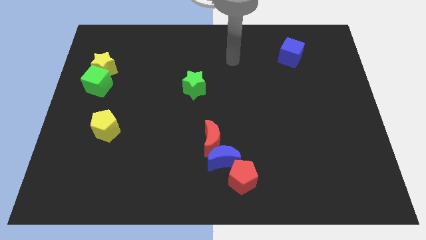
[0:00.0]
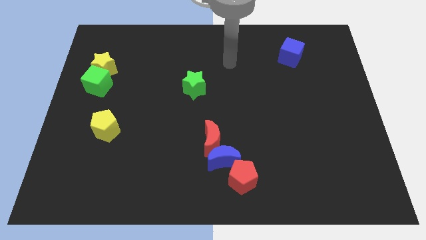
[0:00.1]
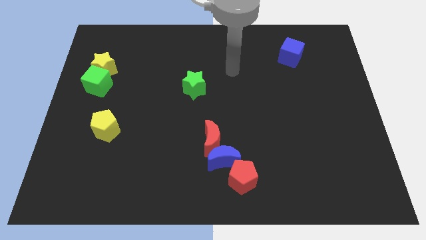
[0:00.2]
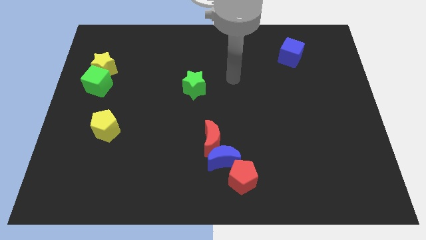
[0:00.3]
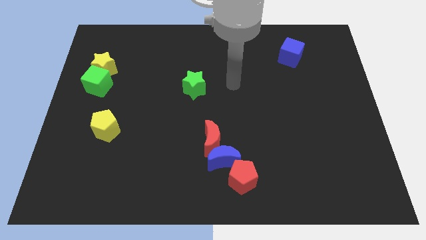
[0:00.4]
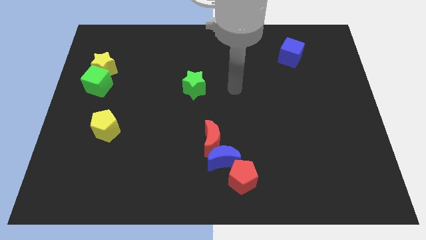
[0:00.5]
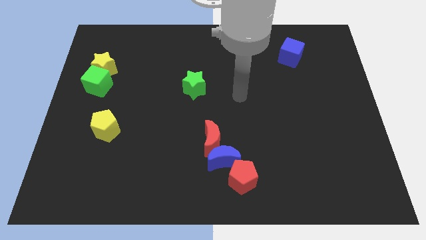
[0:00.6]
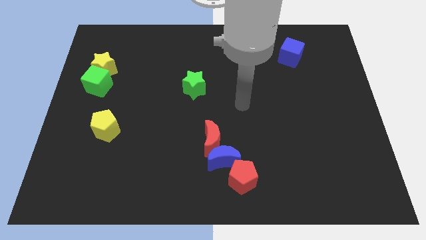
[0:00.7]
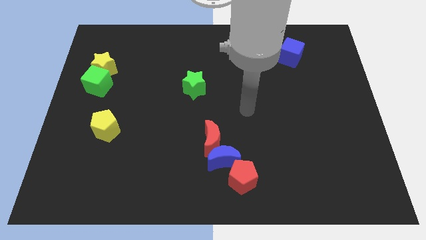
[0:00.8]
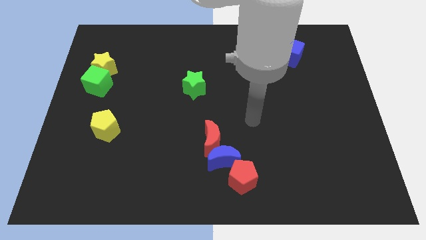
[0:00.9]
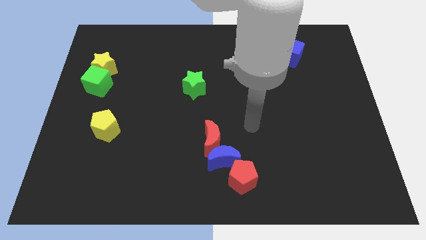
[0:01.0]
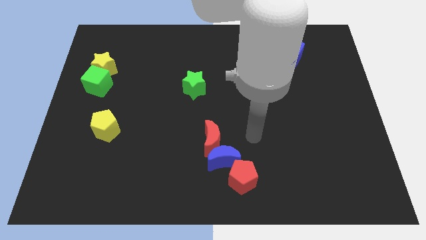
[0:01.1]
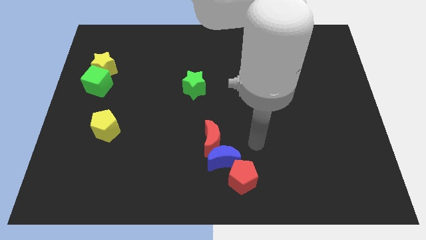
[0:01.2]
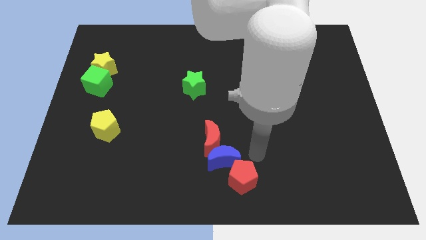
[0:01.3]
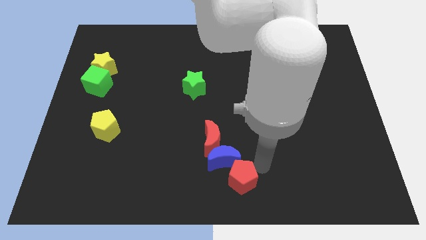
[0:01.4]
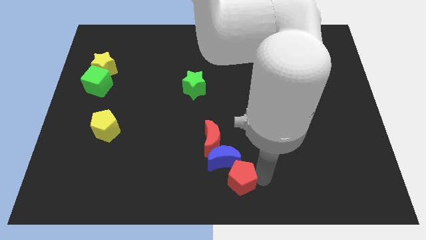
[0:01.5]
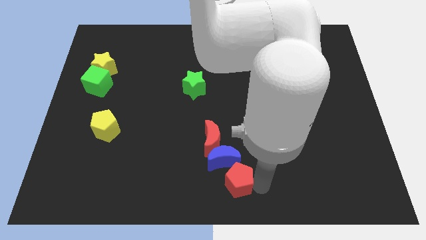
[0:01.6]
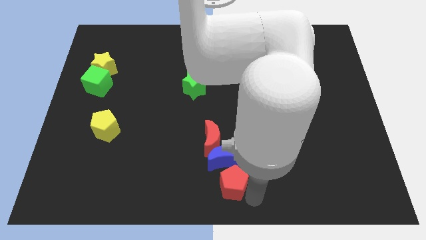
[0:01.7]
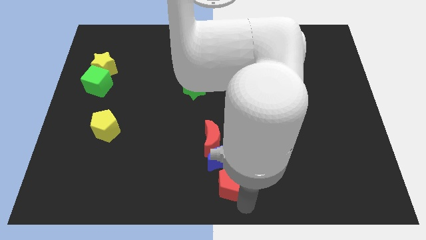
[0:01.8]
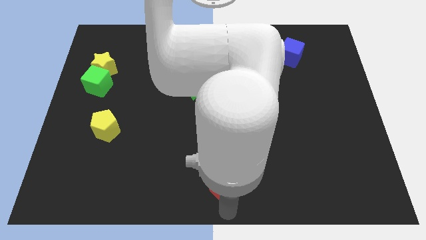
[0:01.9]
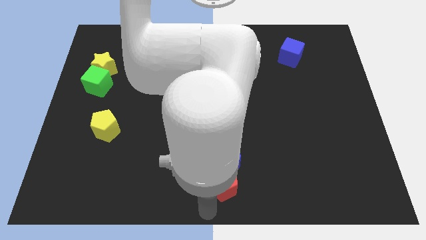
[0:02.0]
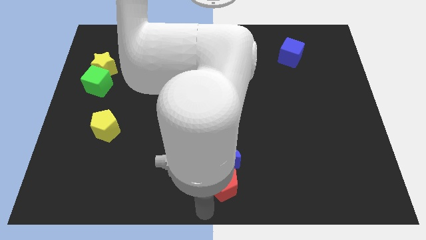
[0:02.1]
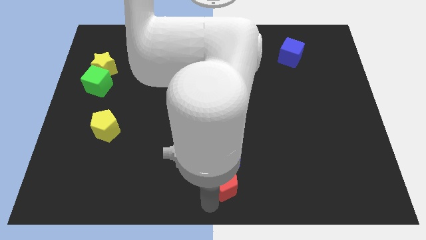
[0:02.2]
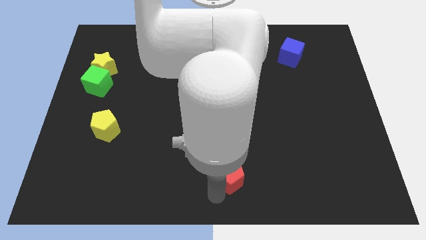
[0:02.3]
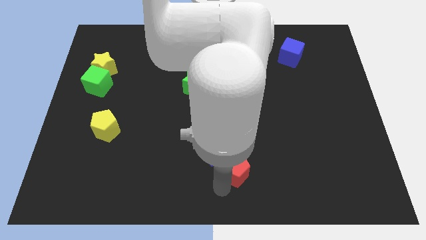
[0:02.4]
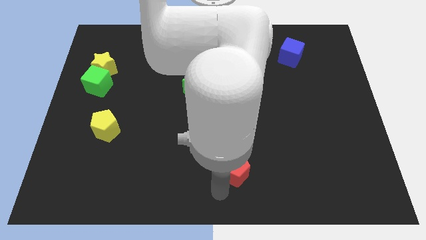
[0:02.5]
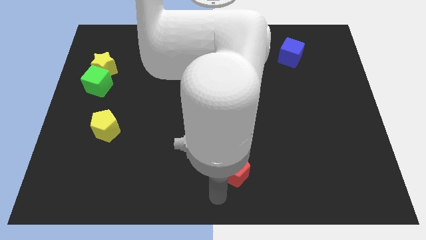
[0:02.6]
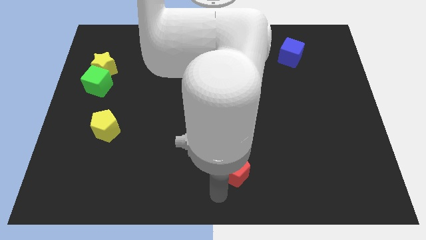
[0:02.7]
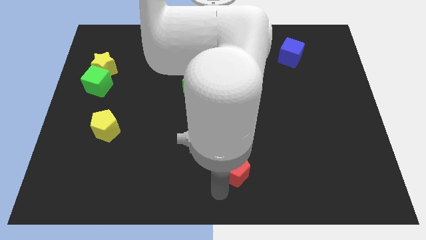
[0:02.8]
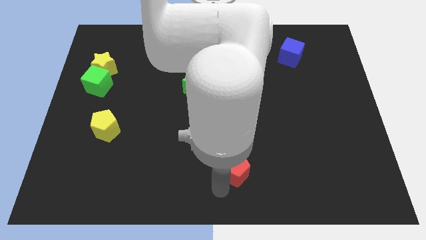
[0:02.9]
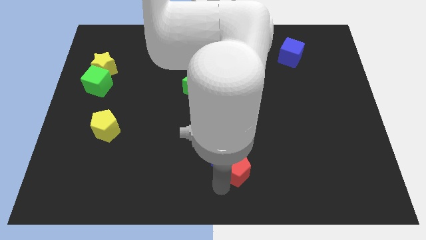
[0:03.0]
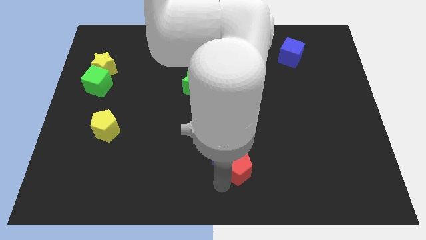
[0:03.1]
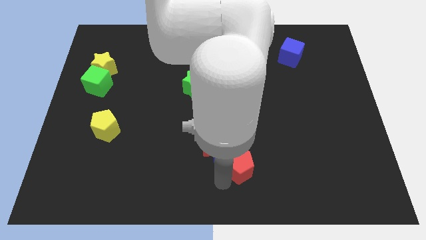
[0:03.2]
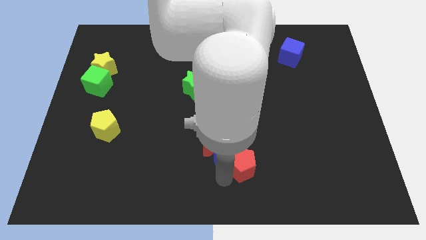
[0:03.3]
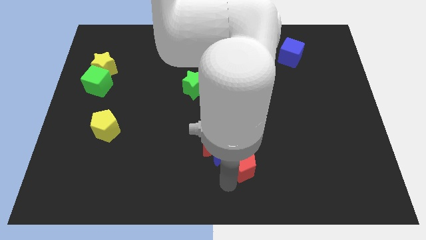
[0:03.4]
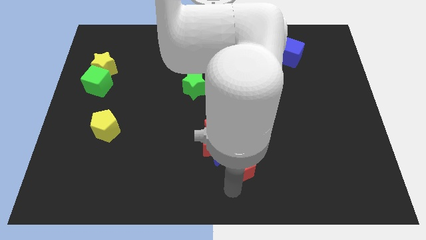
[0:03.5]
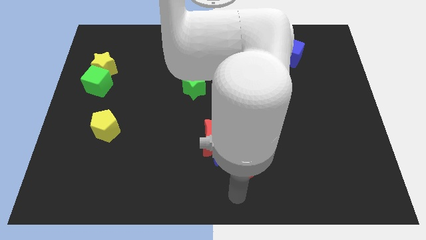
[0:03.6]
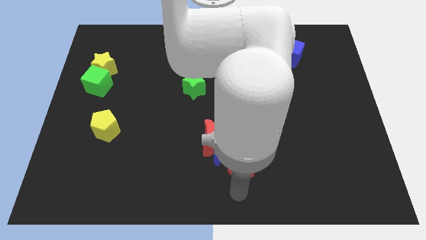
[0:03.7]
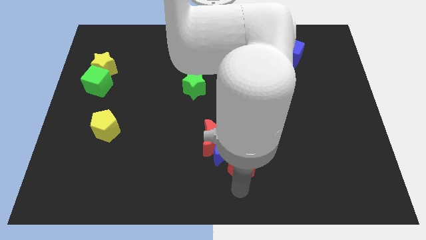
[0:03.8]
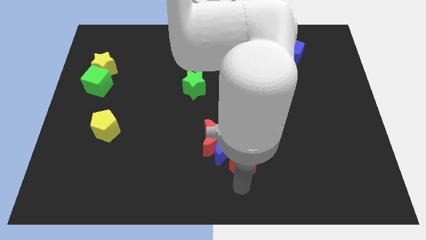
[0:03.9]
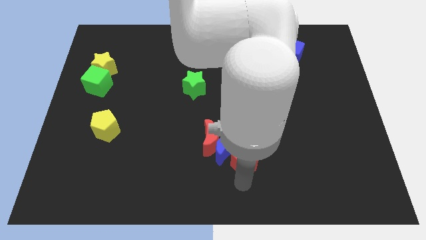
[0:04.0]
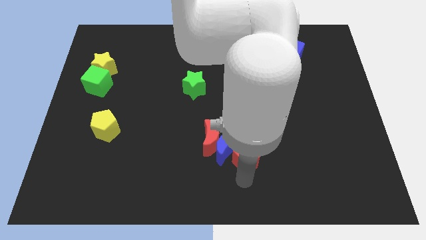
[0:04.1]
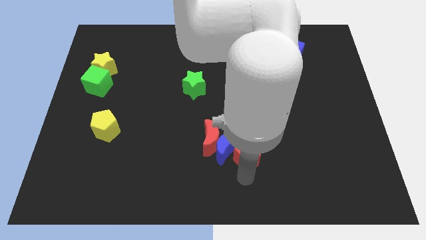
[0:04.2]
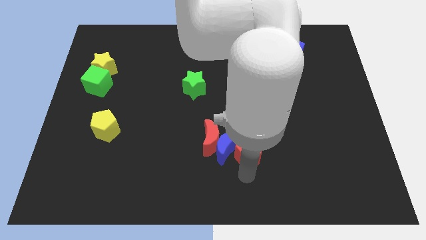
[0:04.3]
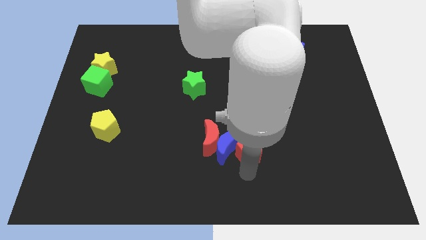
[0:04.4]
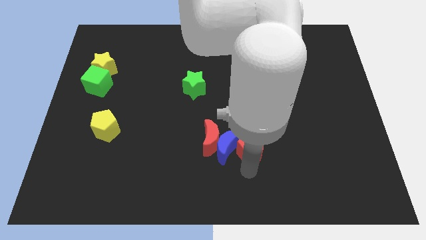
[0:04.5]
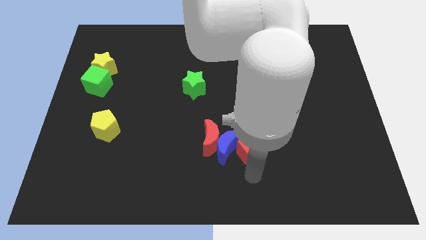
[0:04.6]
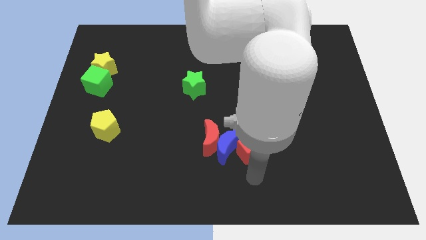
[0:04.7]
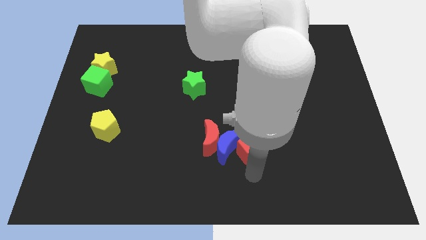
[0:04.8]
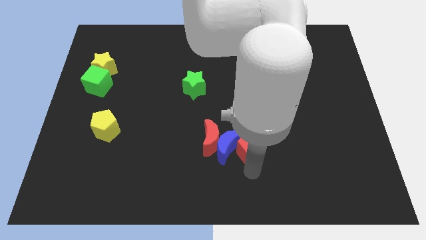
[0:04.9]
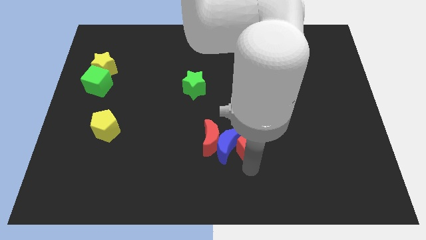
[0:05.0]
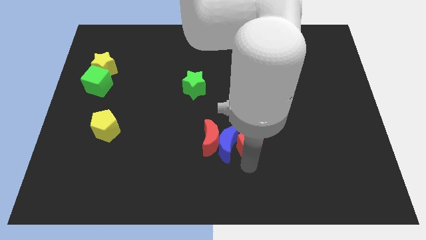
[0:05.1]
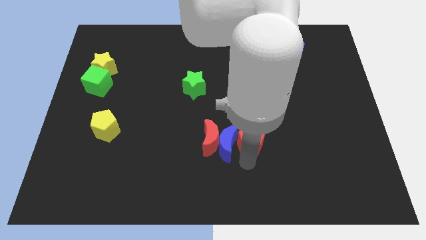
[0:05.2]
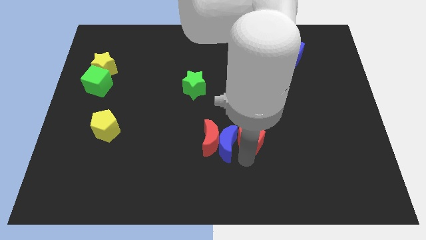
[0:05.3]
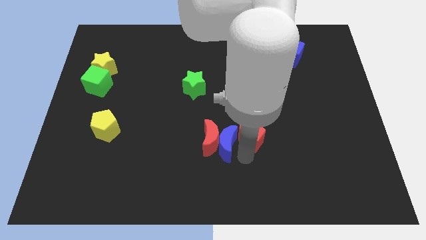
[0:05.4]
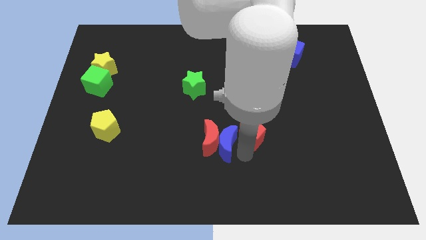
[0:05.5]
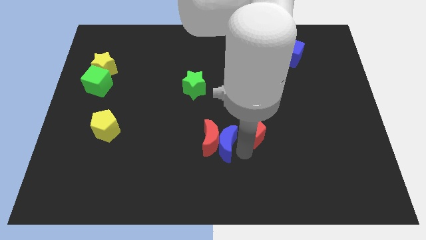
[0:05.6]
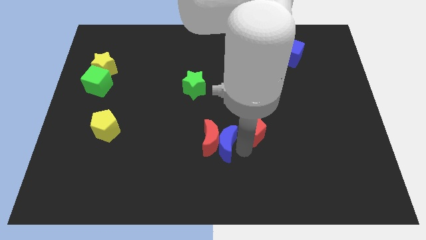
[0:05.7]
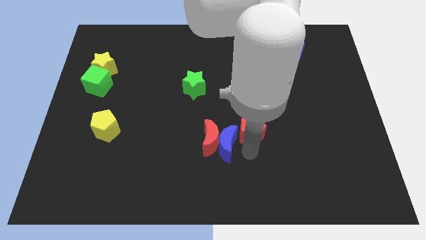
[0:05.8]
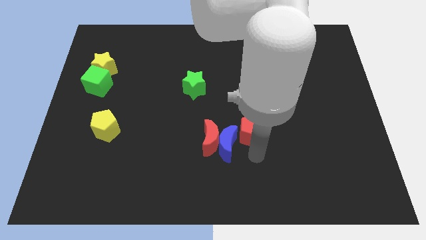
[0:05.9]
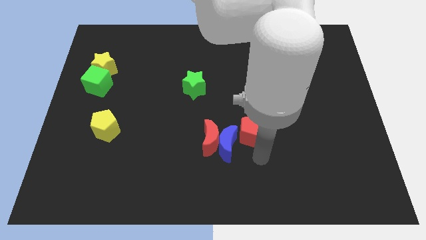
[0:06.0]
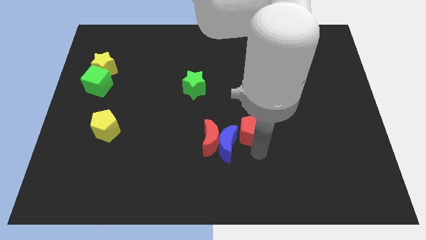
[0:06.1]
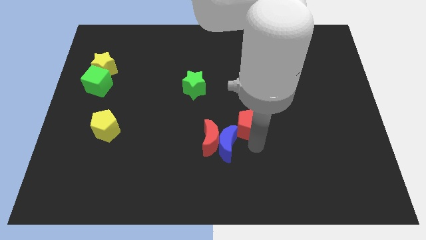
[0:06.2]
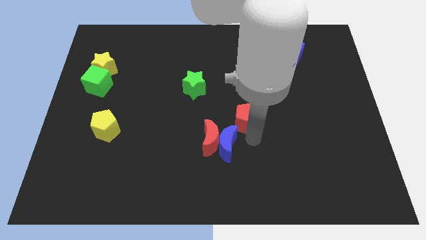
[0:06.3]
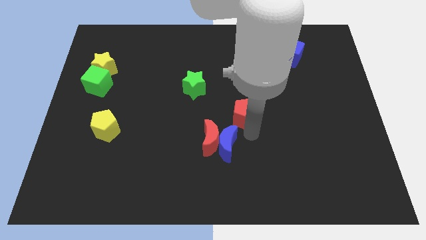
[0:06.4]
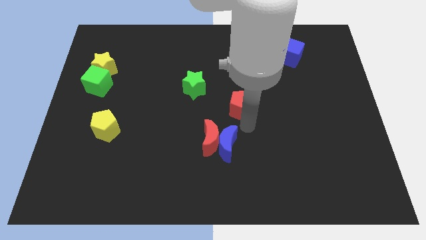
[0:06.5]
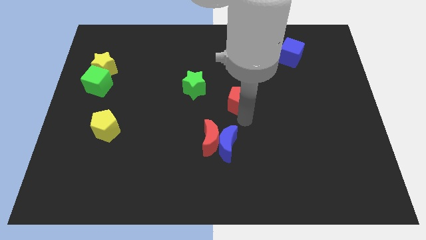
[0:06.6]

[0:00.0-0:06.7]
push the red pentagon up

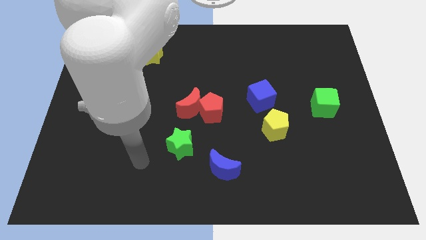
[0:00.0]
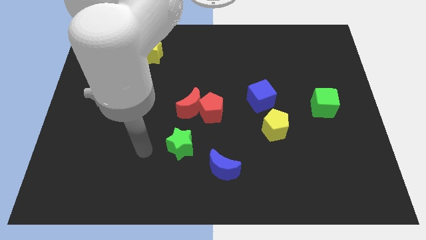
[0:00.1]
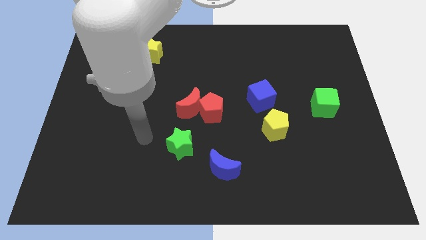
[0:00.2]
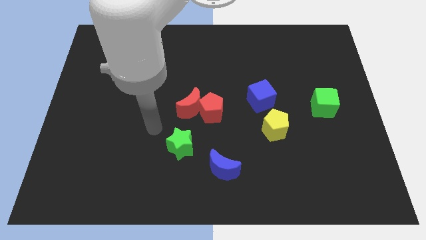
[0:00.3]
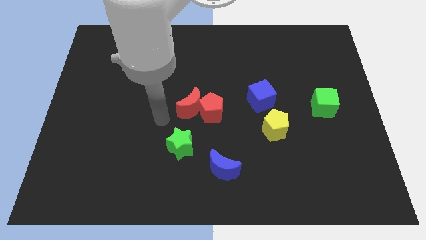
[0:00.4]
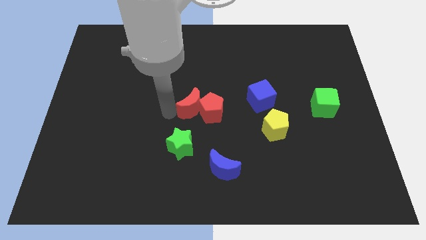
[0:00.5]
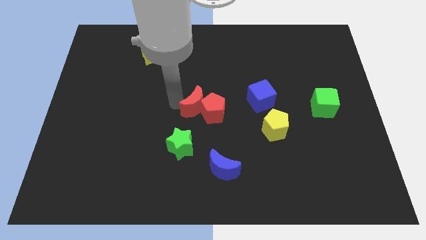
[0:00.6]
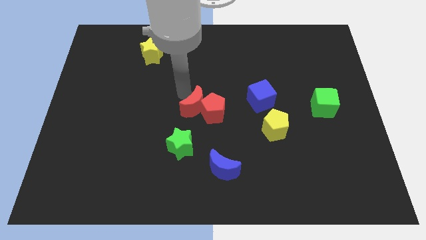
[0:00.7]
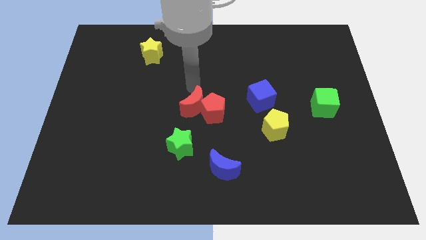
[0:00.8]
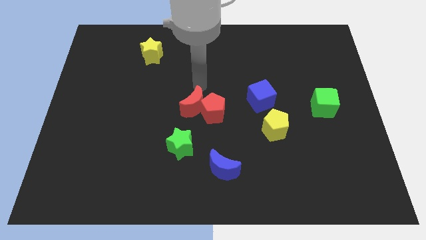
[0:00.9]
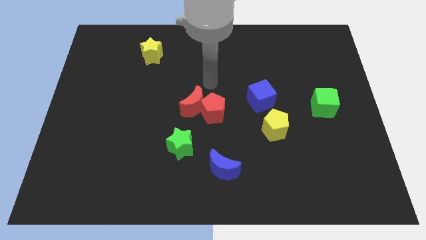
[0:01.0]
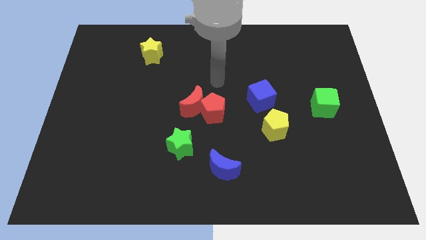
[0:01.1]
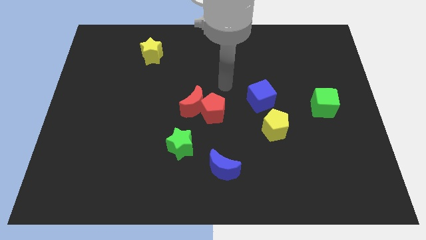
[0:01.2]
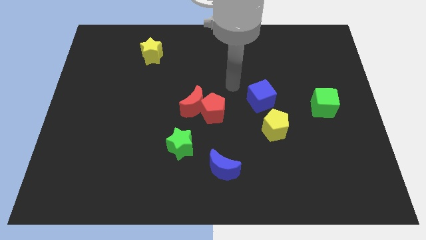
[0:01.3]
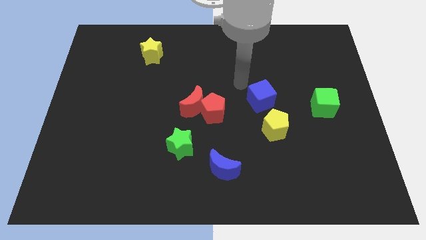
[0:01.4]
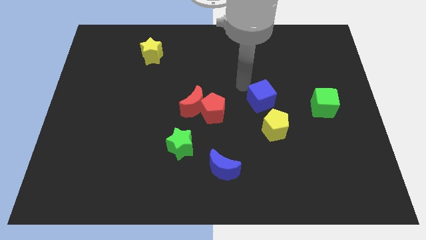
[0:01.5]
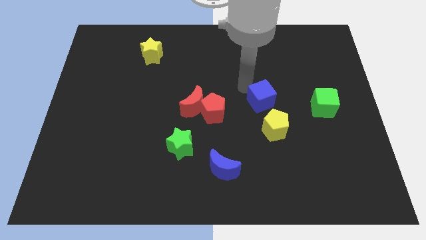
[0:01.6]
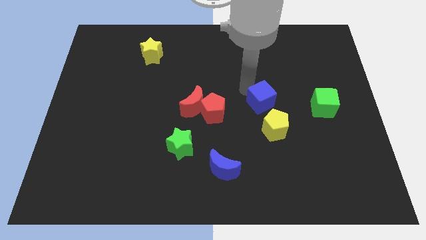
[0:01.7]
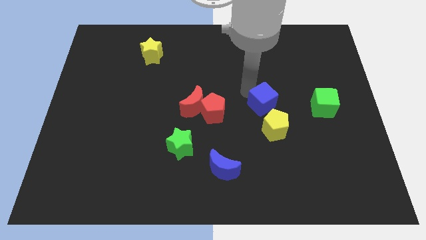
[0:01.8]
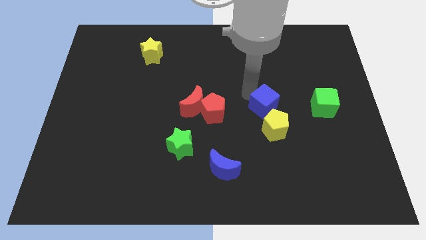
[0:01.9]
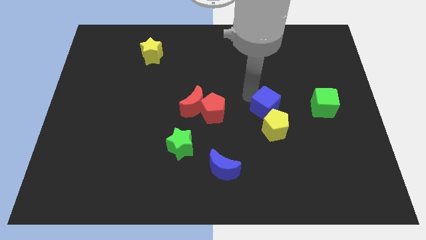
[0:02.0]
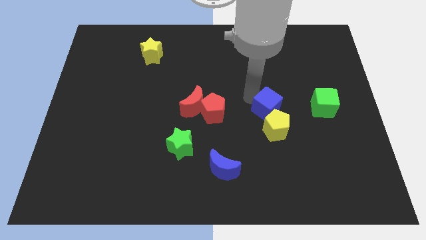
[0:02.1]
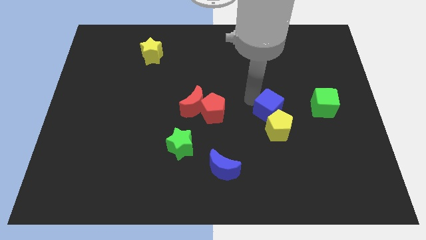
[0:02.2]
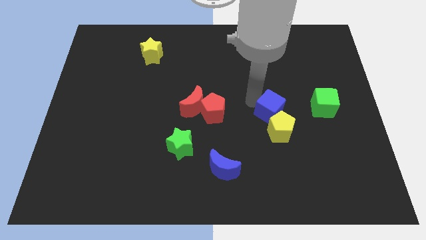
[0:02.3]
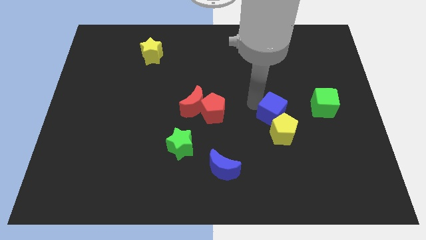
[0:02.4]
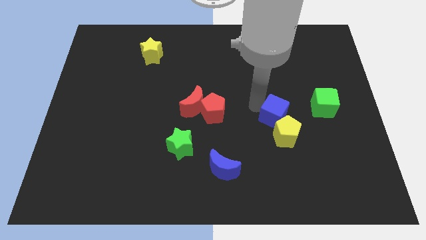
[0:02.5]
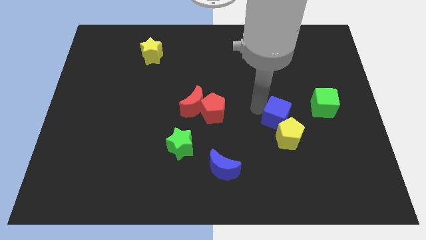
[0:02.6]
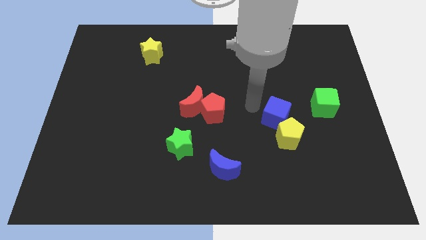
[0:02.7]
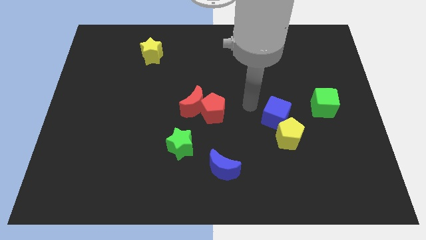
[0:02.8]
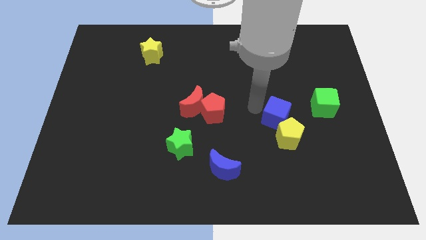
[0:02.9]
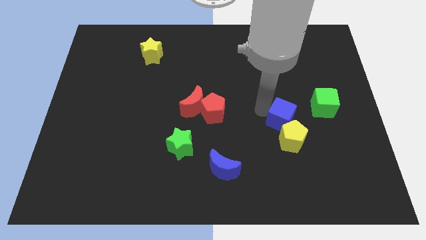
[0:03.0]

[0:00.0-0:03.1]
move the blue cube a little downwards and then to the right
